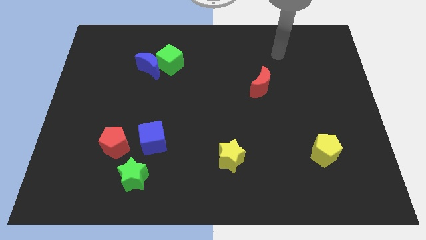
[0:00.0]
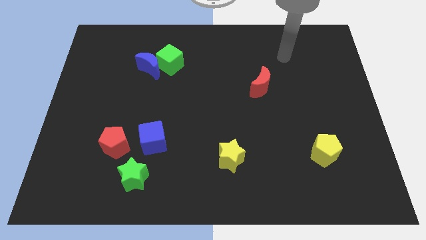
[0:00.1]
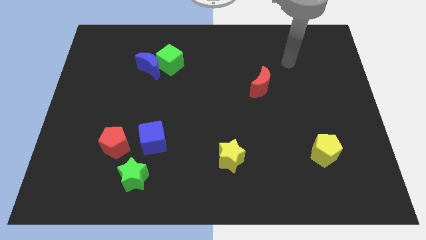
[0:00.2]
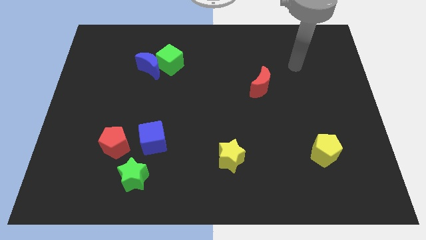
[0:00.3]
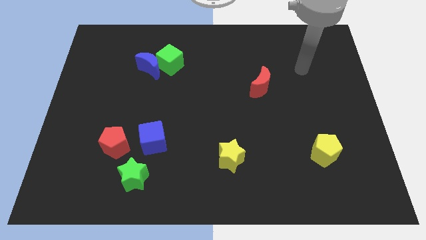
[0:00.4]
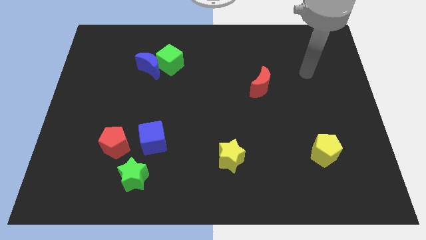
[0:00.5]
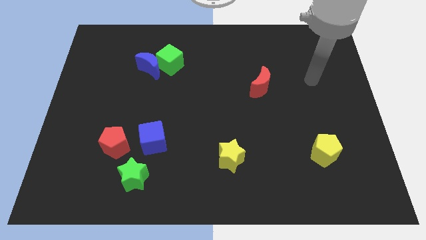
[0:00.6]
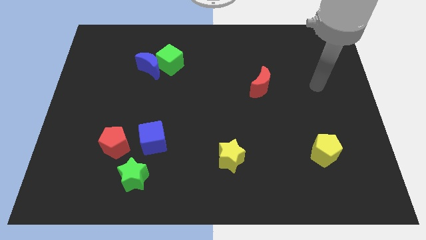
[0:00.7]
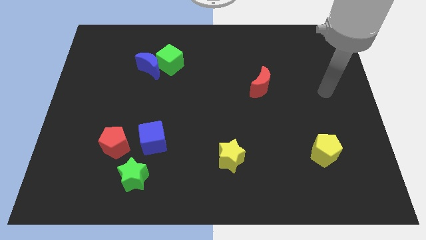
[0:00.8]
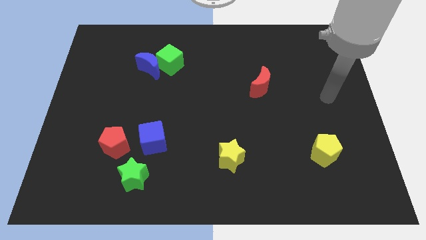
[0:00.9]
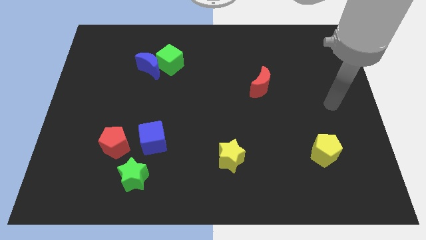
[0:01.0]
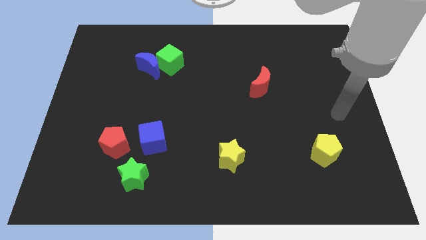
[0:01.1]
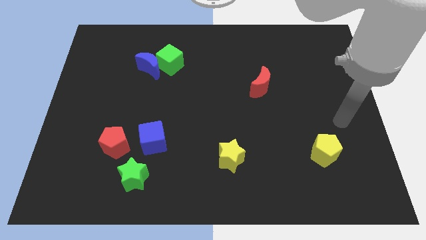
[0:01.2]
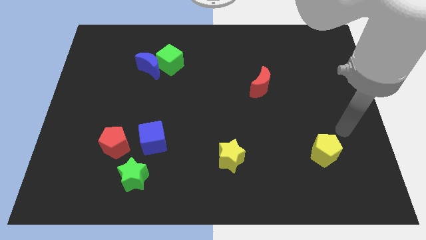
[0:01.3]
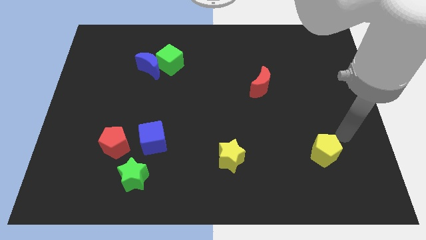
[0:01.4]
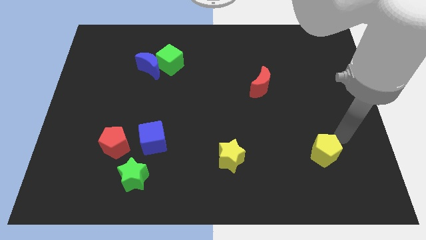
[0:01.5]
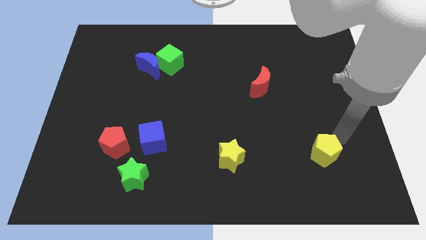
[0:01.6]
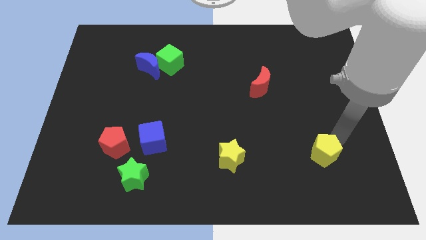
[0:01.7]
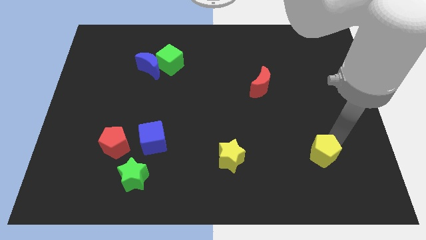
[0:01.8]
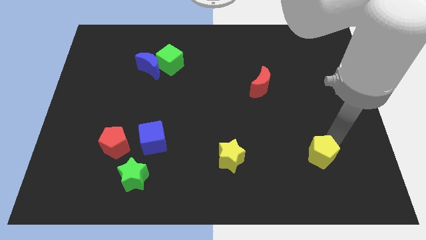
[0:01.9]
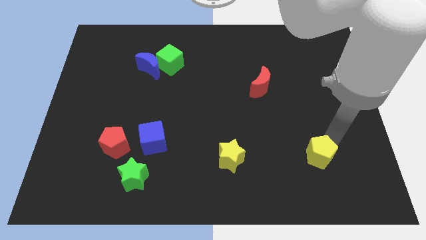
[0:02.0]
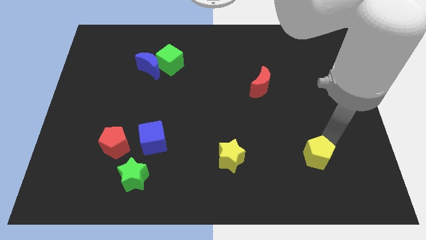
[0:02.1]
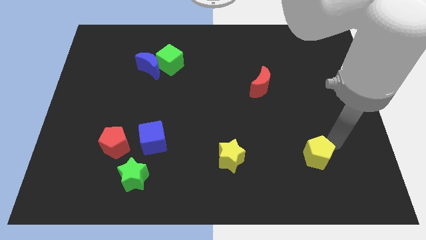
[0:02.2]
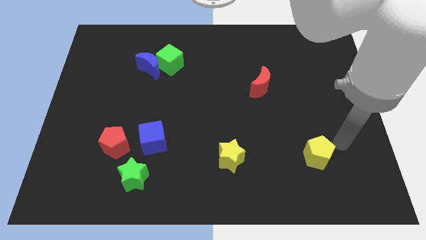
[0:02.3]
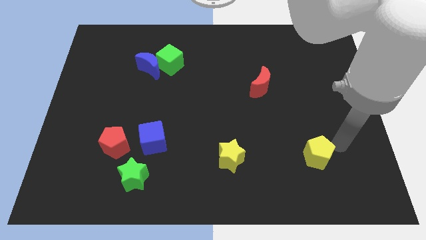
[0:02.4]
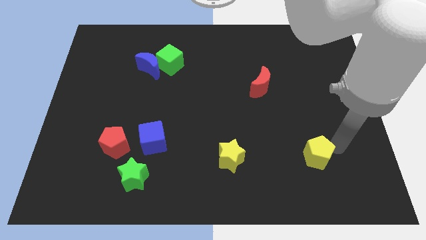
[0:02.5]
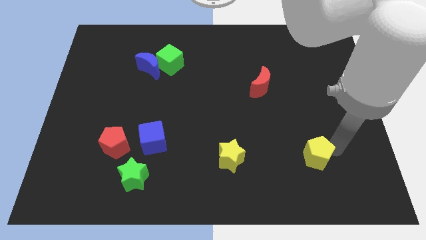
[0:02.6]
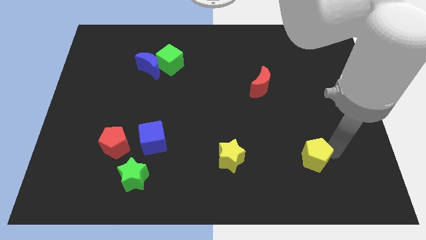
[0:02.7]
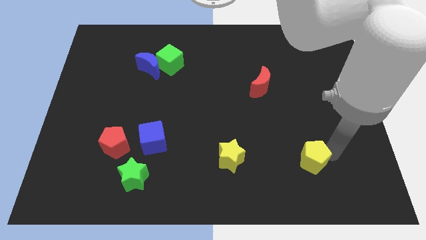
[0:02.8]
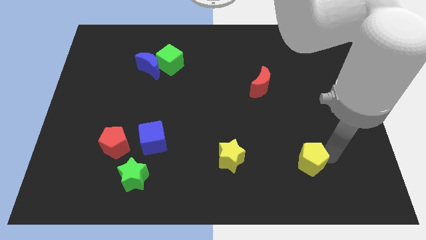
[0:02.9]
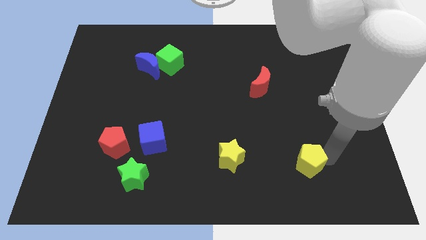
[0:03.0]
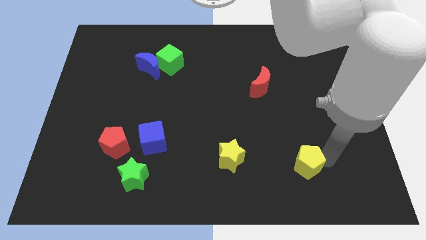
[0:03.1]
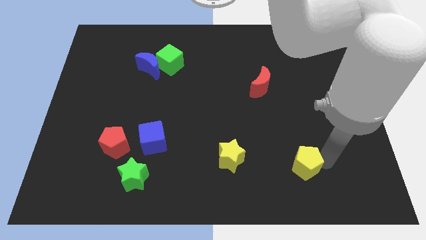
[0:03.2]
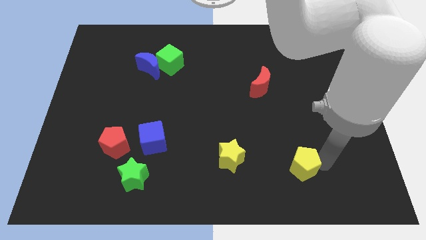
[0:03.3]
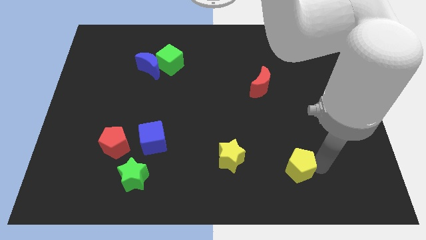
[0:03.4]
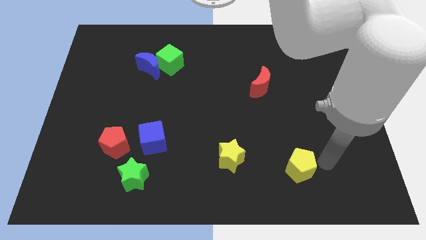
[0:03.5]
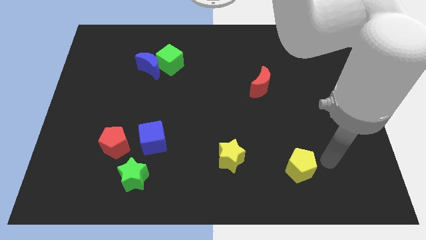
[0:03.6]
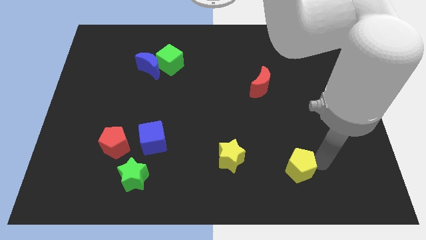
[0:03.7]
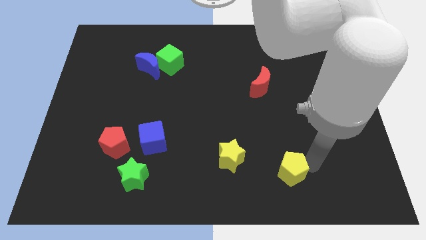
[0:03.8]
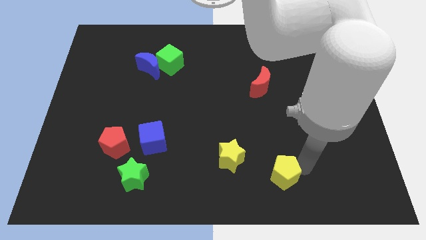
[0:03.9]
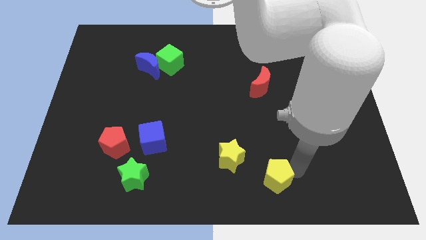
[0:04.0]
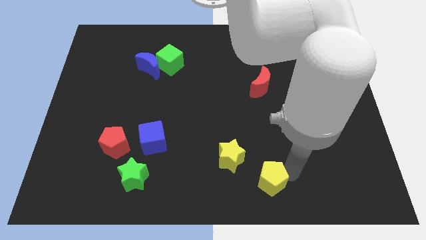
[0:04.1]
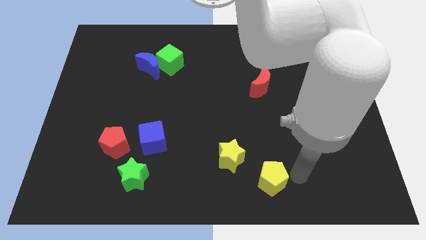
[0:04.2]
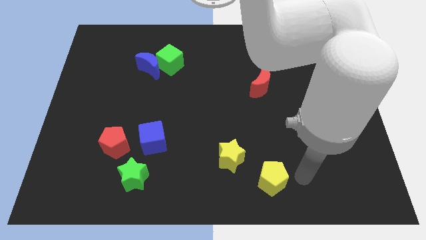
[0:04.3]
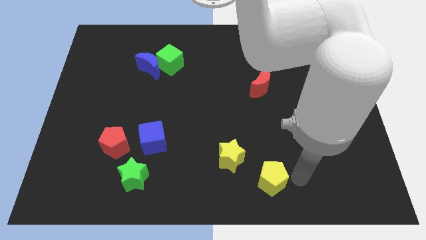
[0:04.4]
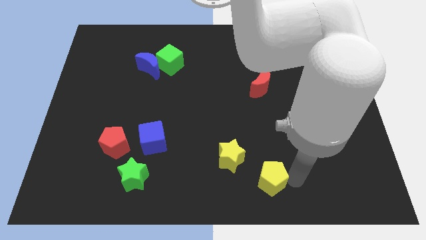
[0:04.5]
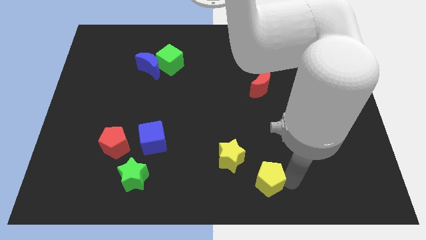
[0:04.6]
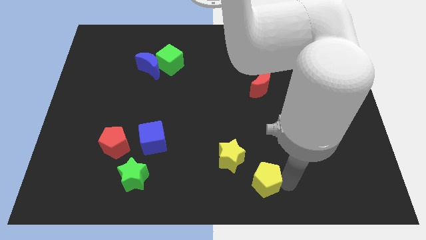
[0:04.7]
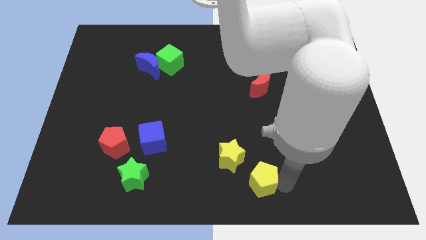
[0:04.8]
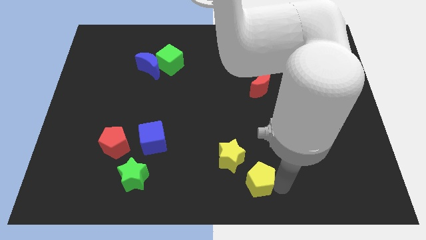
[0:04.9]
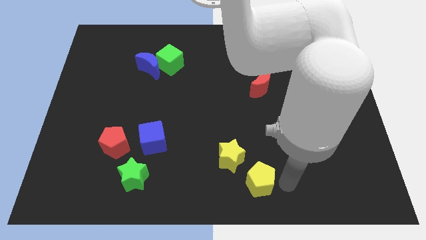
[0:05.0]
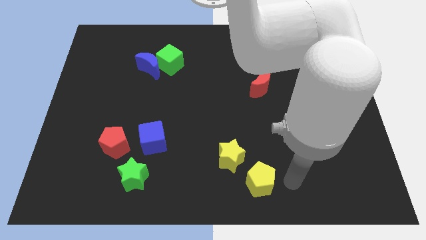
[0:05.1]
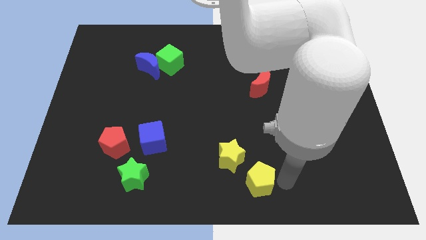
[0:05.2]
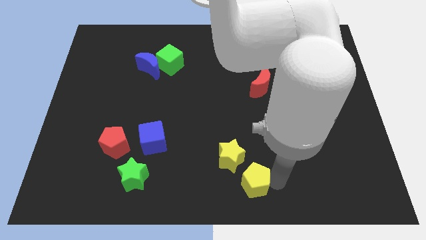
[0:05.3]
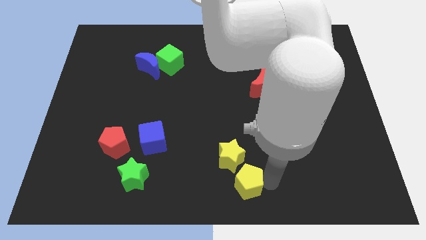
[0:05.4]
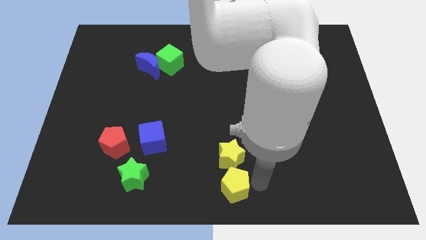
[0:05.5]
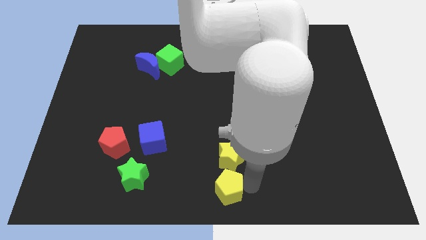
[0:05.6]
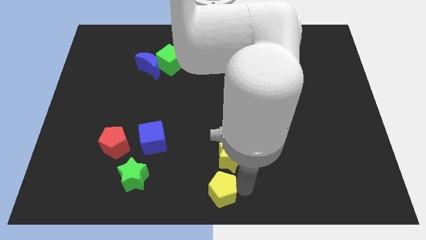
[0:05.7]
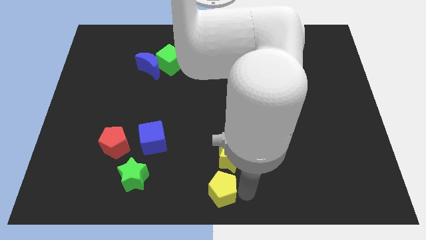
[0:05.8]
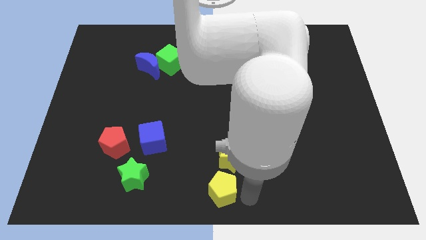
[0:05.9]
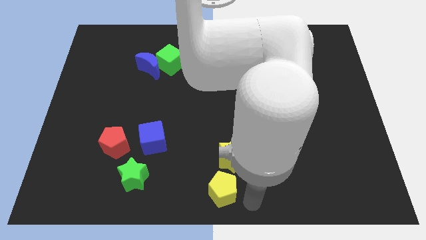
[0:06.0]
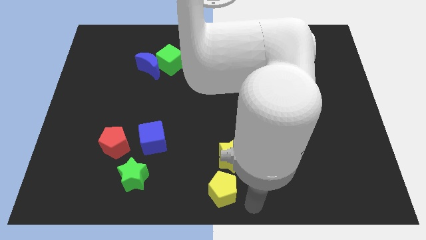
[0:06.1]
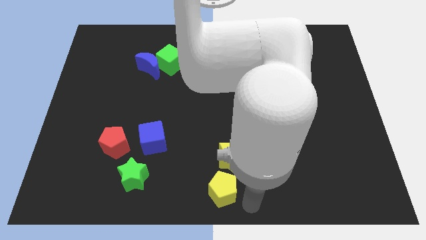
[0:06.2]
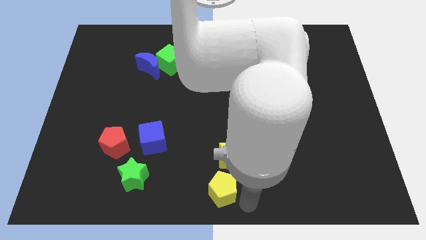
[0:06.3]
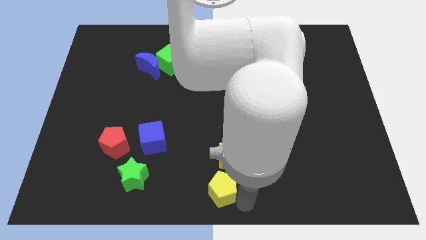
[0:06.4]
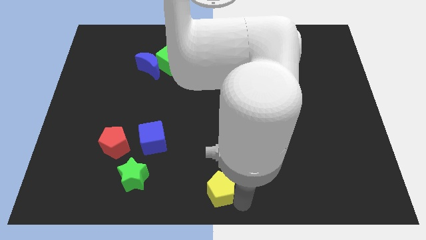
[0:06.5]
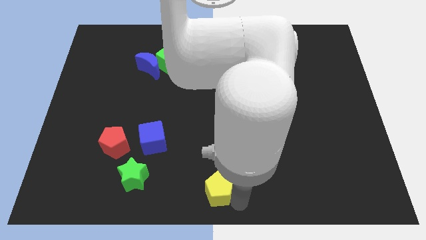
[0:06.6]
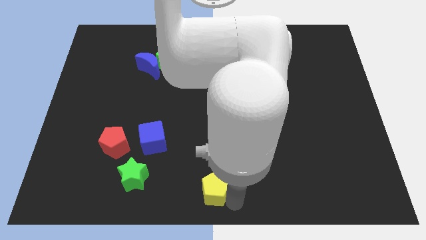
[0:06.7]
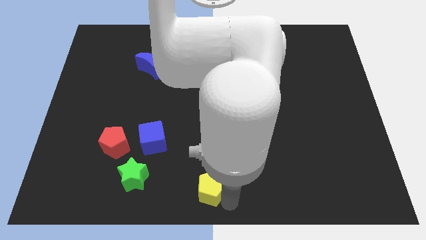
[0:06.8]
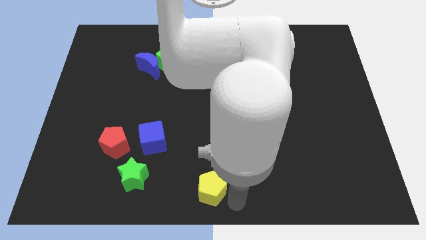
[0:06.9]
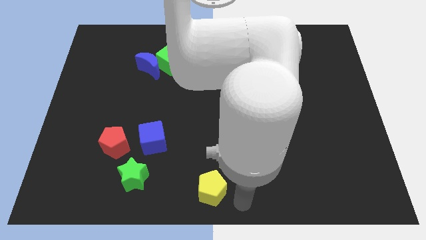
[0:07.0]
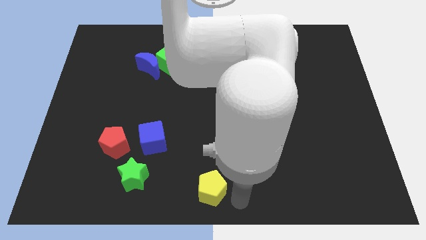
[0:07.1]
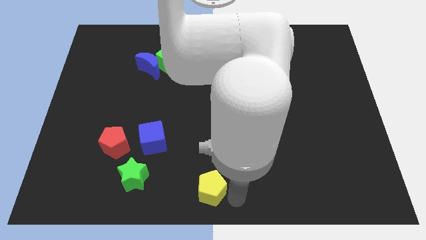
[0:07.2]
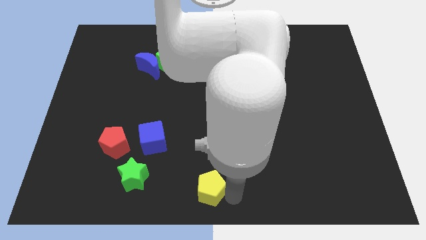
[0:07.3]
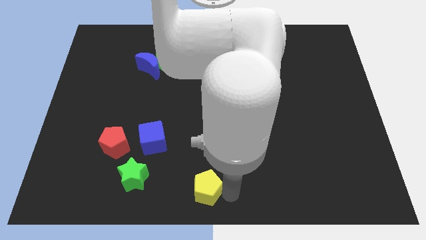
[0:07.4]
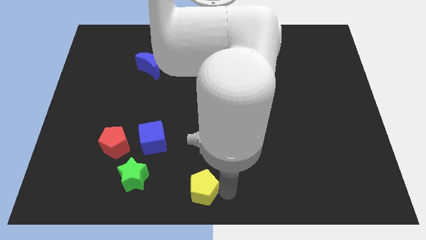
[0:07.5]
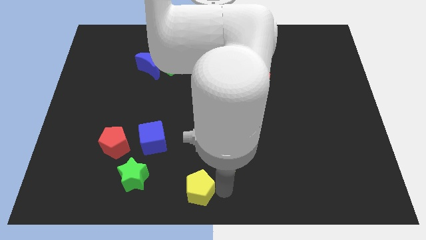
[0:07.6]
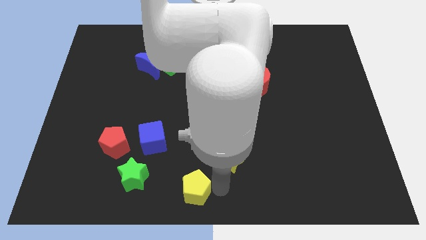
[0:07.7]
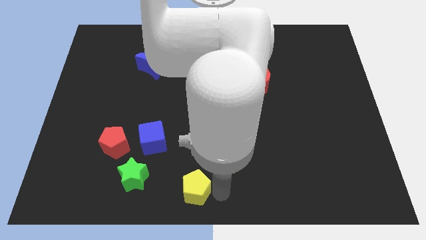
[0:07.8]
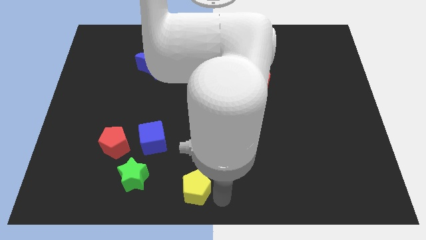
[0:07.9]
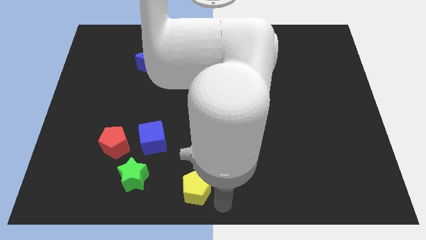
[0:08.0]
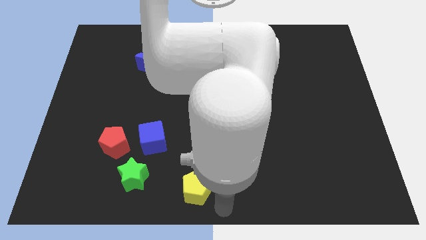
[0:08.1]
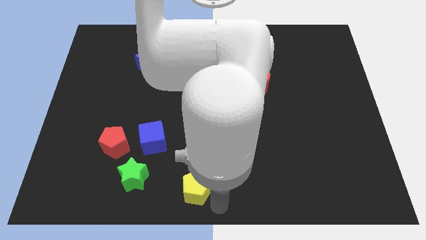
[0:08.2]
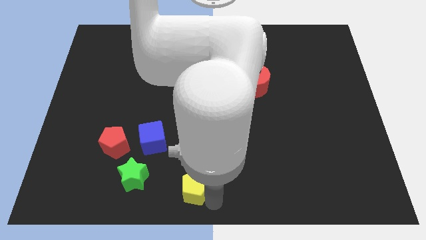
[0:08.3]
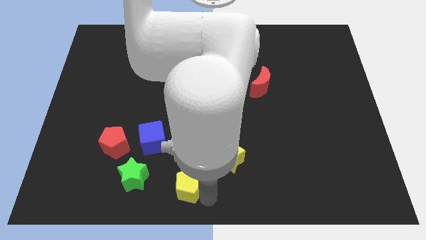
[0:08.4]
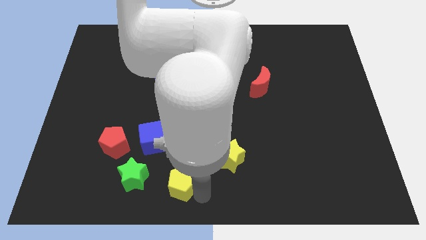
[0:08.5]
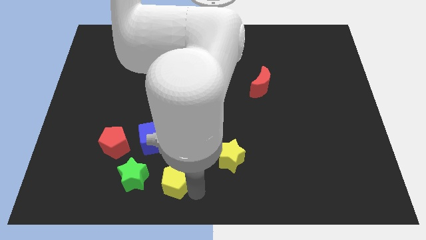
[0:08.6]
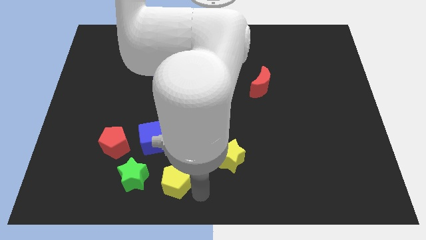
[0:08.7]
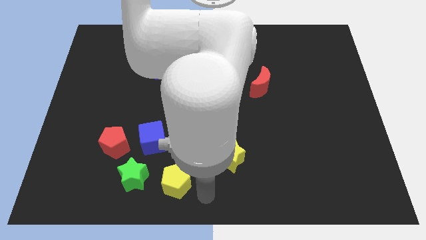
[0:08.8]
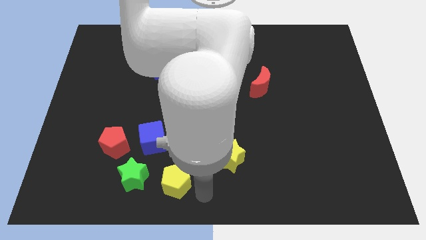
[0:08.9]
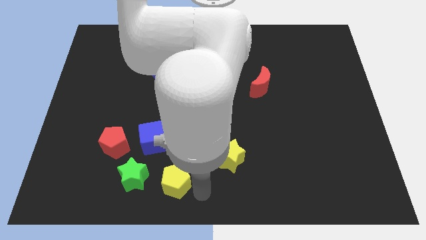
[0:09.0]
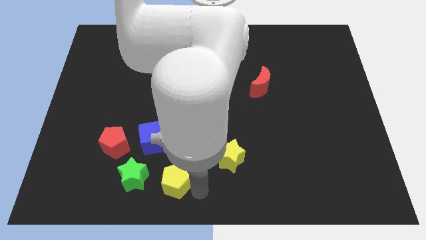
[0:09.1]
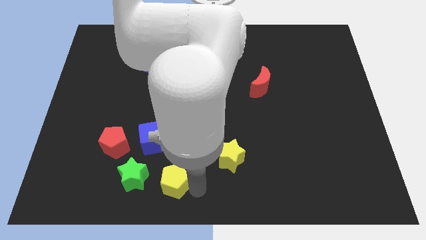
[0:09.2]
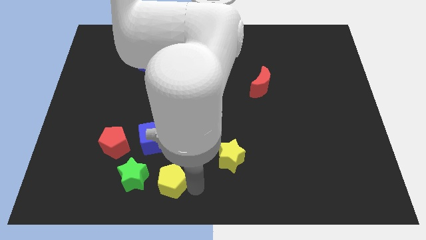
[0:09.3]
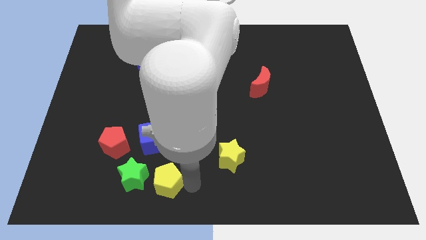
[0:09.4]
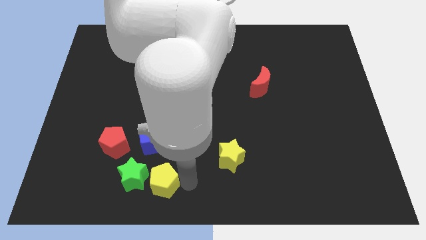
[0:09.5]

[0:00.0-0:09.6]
move the yellow pentagon to the green star
